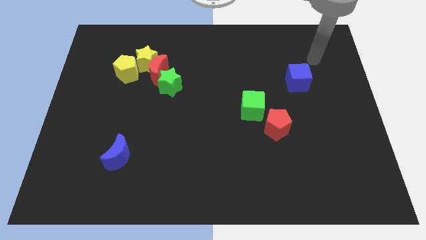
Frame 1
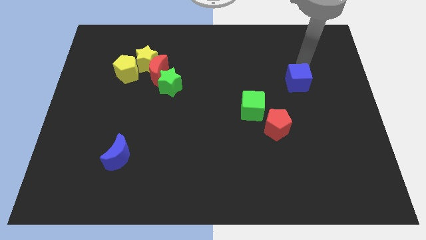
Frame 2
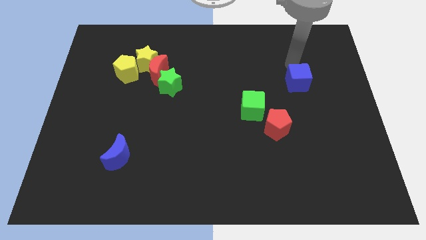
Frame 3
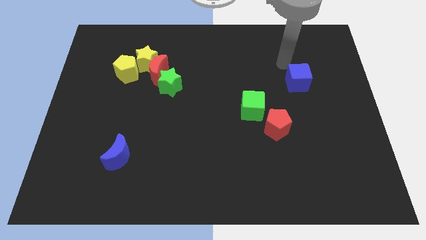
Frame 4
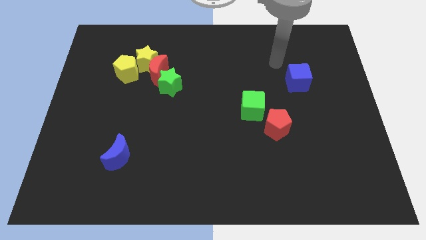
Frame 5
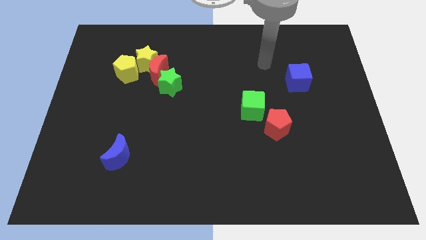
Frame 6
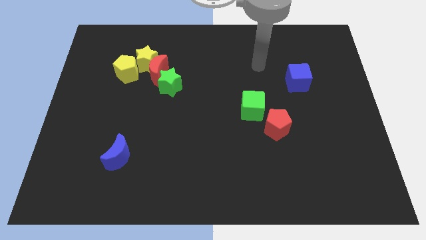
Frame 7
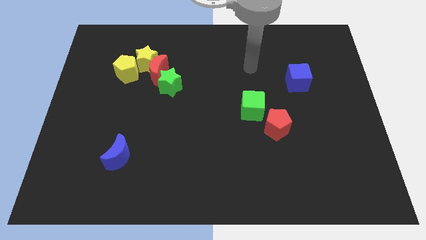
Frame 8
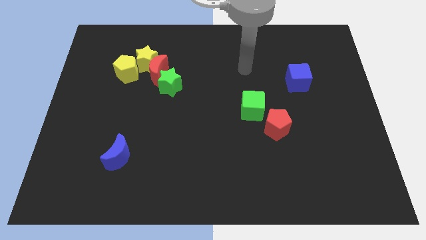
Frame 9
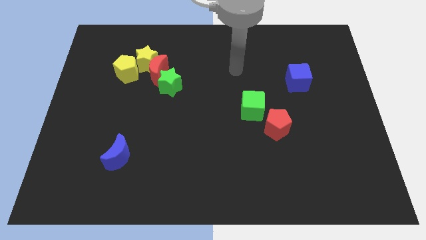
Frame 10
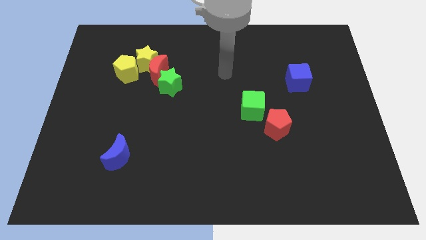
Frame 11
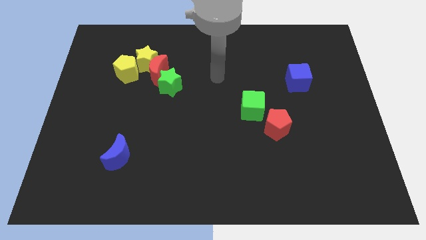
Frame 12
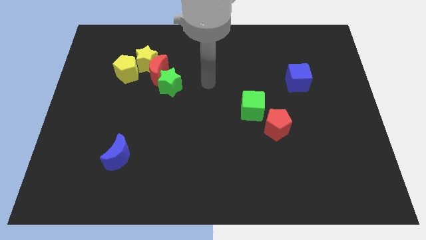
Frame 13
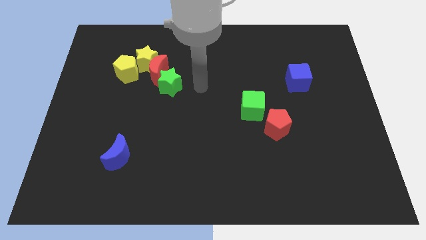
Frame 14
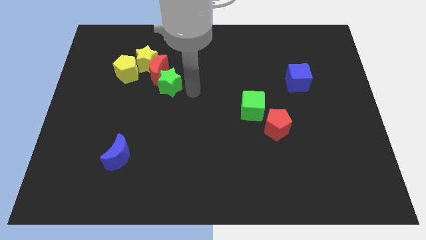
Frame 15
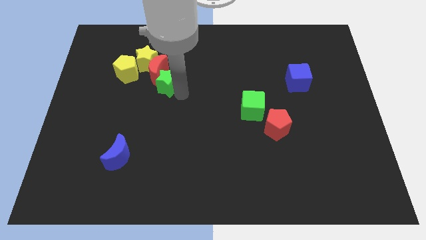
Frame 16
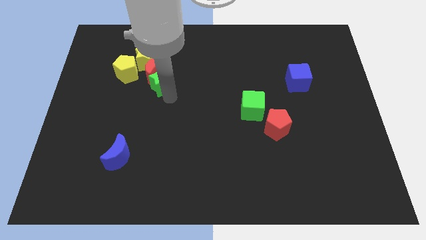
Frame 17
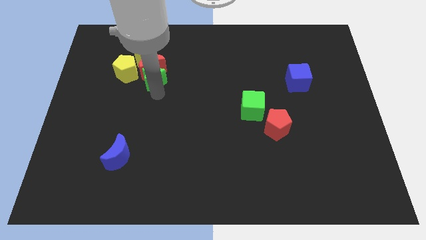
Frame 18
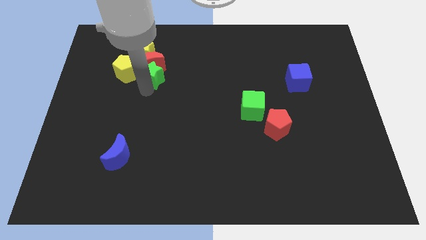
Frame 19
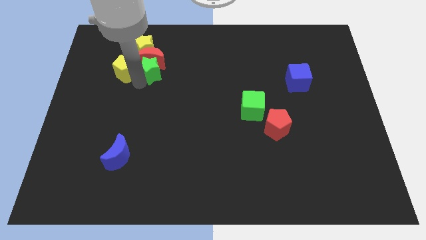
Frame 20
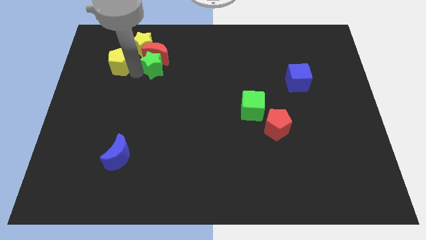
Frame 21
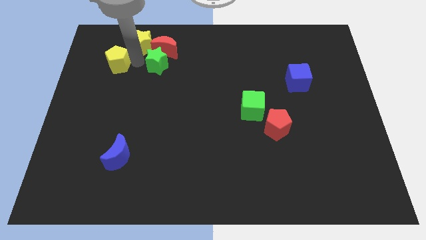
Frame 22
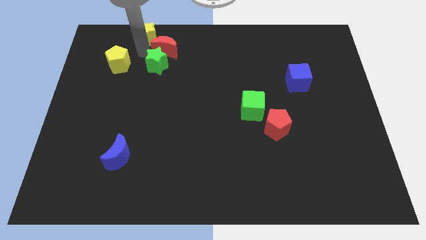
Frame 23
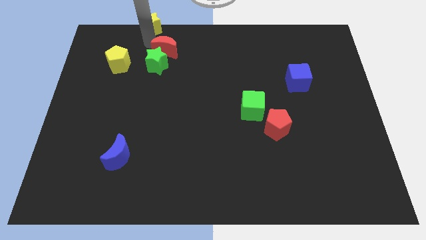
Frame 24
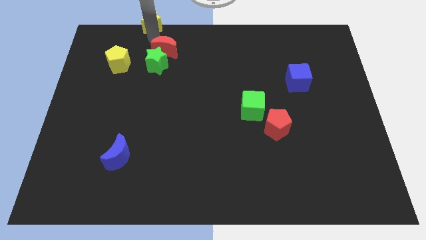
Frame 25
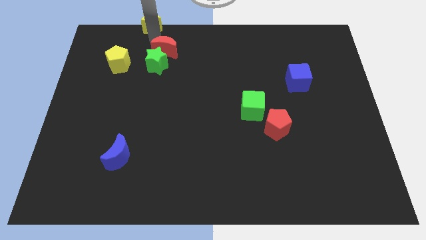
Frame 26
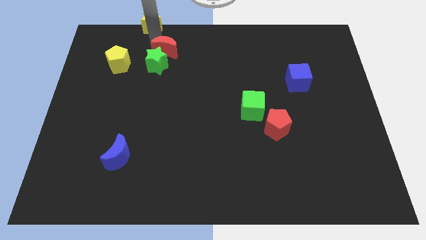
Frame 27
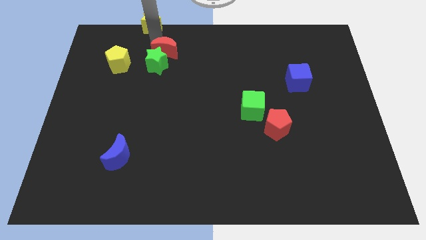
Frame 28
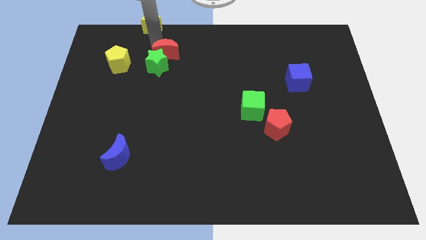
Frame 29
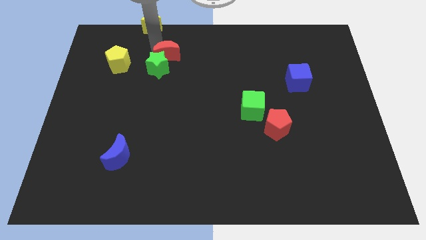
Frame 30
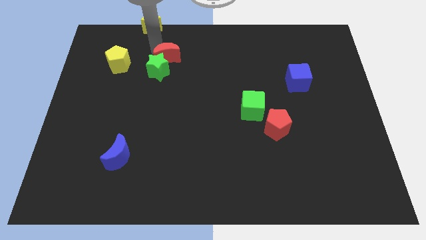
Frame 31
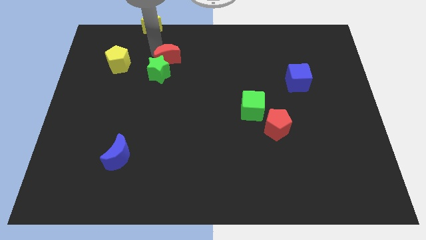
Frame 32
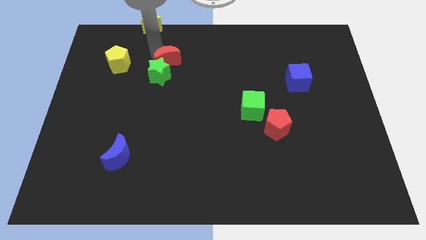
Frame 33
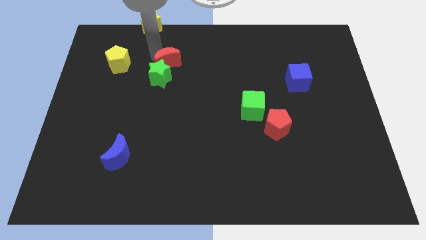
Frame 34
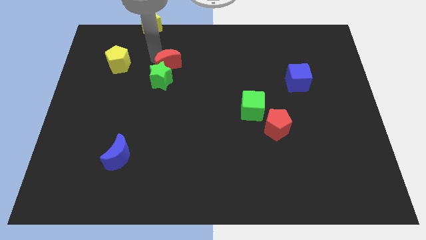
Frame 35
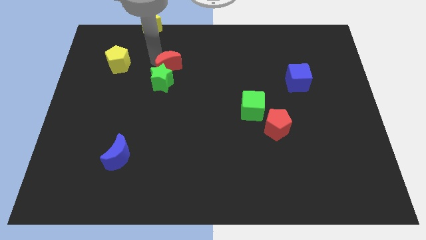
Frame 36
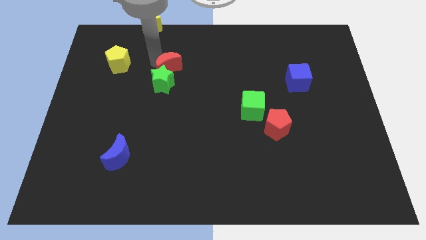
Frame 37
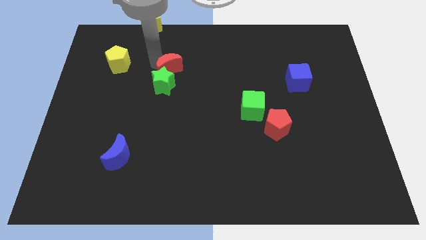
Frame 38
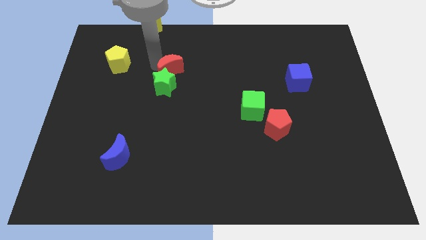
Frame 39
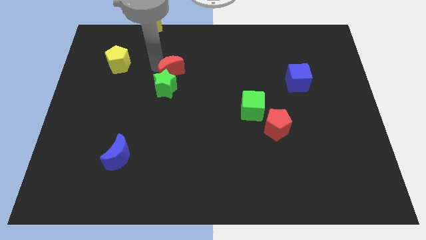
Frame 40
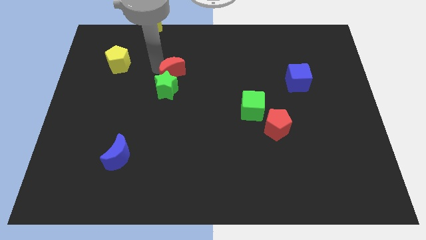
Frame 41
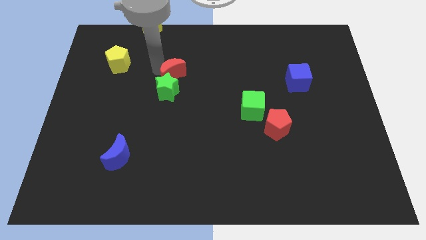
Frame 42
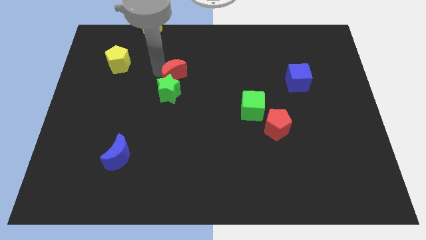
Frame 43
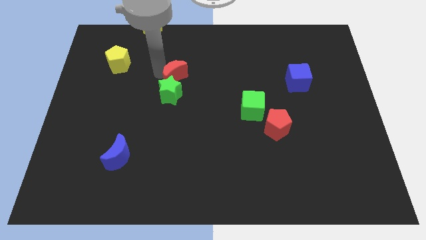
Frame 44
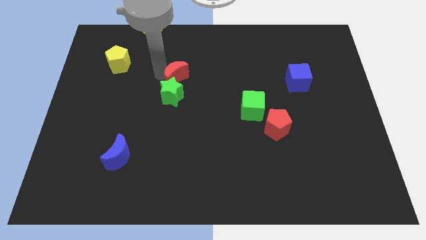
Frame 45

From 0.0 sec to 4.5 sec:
move the red moon away from the group

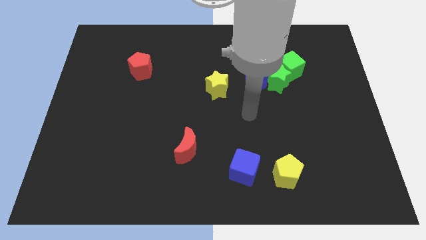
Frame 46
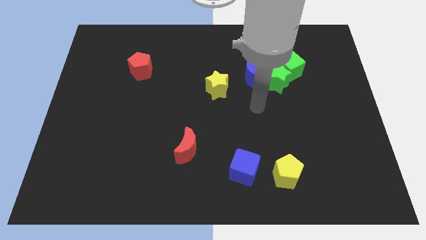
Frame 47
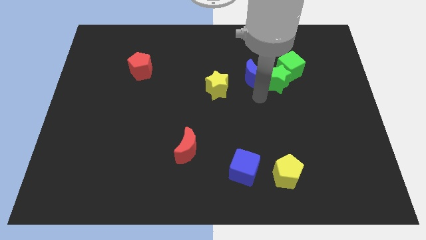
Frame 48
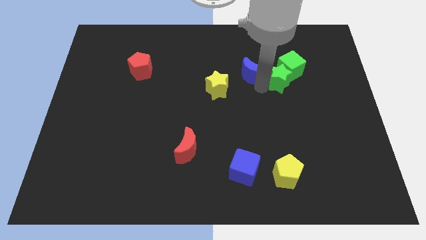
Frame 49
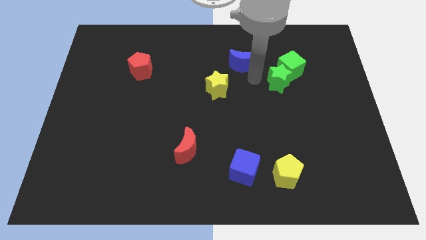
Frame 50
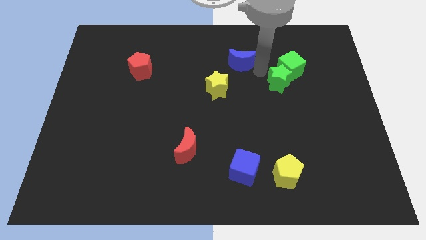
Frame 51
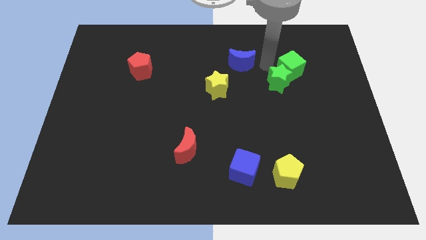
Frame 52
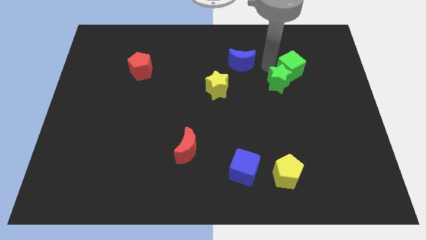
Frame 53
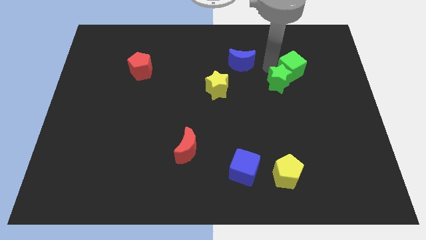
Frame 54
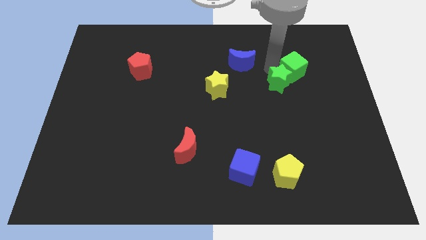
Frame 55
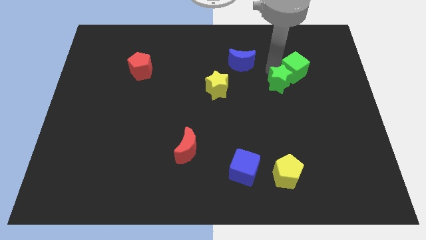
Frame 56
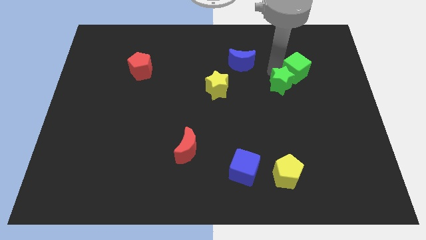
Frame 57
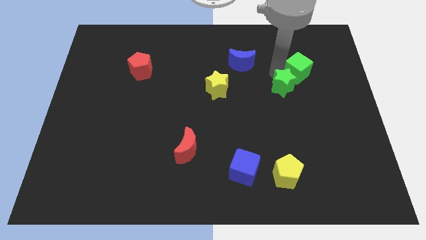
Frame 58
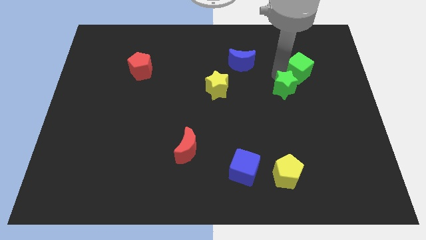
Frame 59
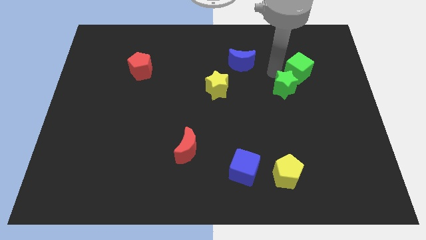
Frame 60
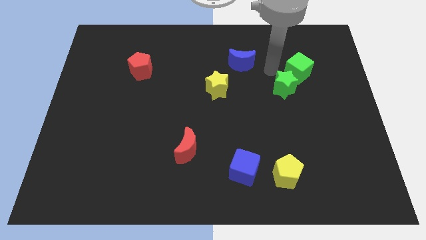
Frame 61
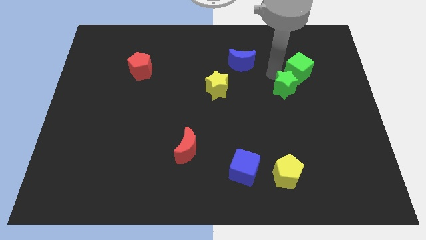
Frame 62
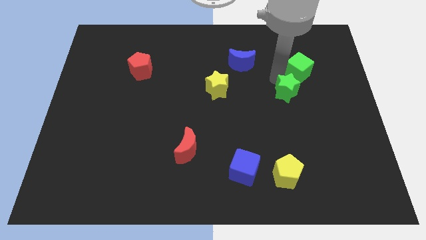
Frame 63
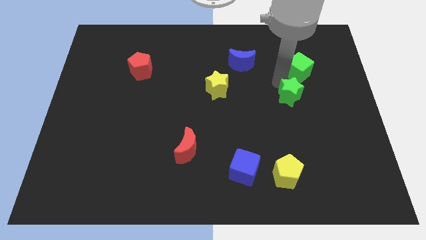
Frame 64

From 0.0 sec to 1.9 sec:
move the green star away from the green cube and blue moon

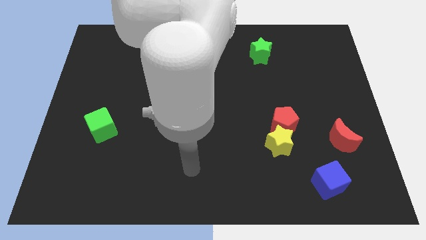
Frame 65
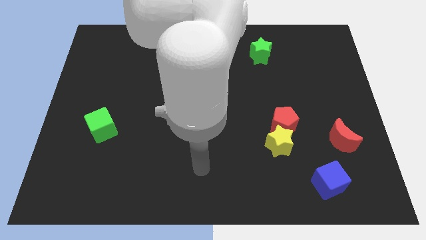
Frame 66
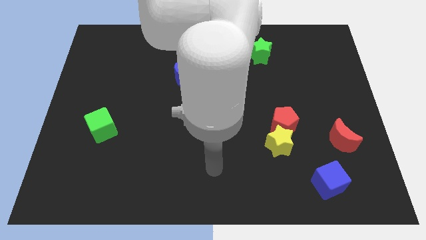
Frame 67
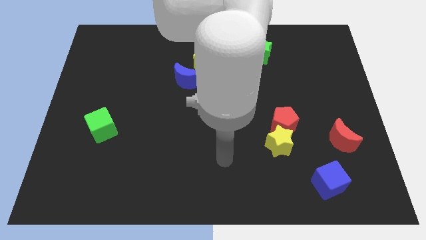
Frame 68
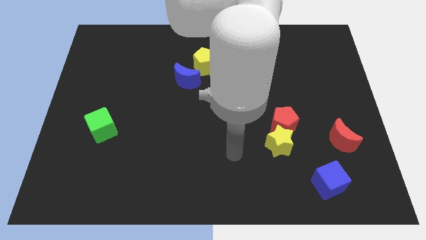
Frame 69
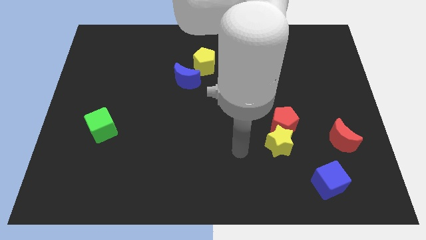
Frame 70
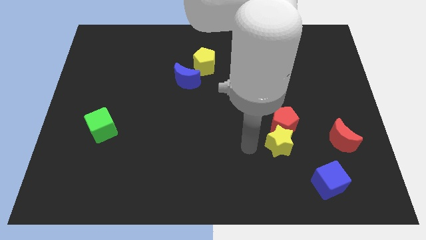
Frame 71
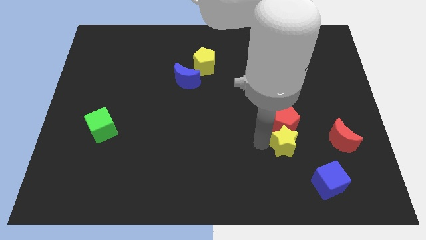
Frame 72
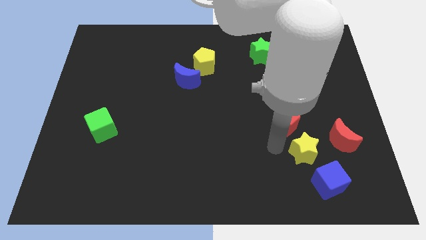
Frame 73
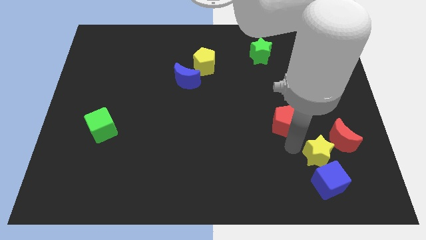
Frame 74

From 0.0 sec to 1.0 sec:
pull the red pentagon apart from the yellow star

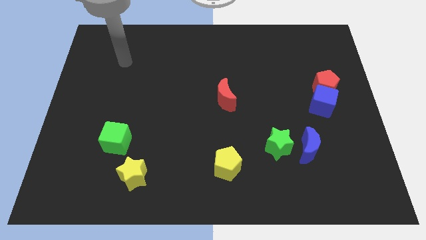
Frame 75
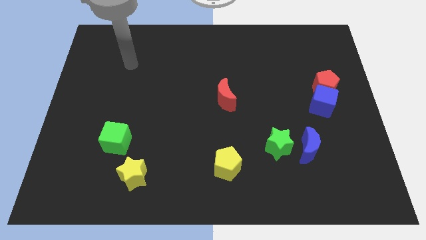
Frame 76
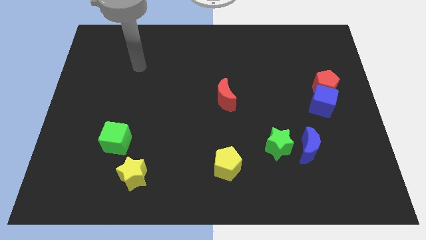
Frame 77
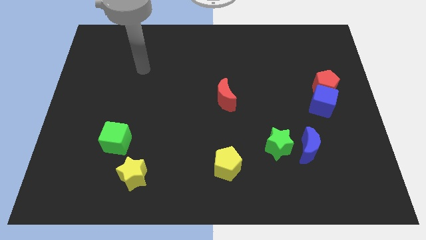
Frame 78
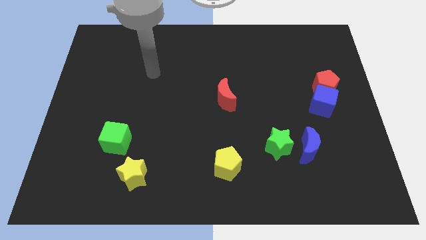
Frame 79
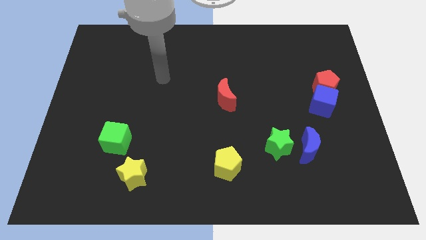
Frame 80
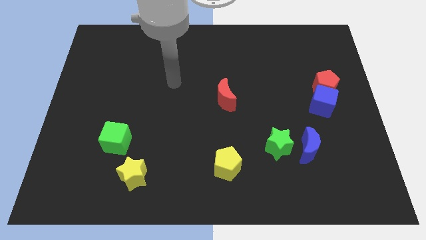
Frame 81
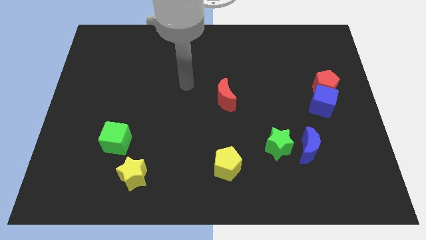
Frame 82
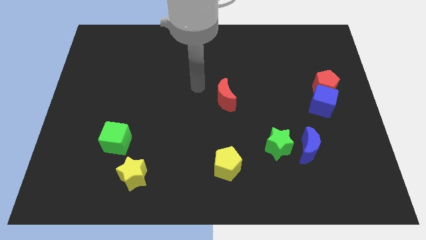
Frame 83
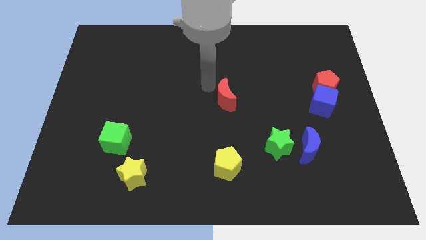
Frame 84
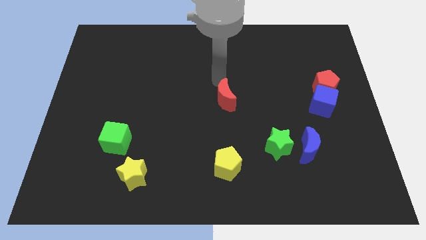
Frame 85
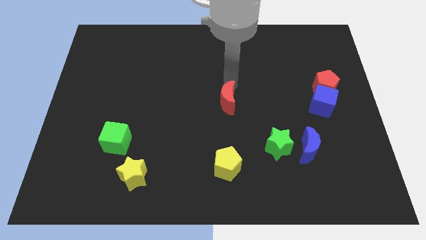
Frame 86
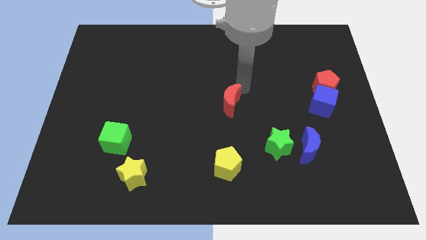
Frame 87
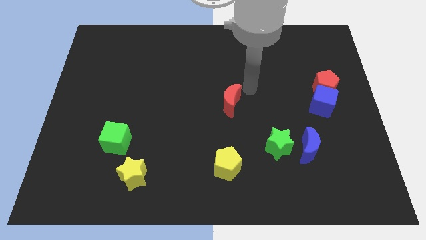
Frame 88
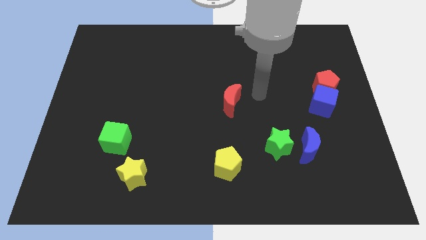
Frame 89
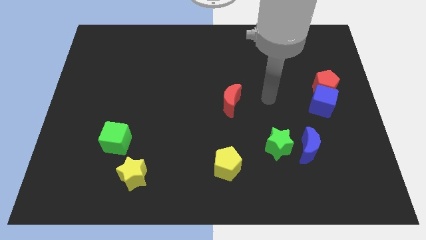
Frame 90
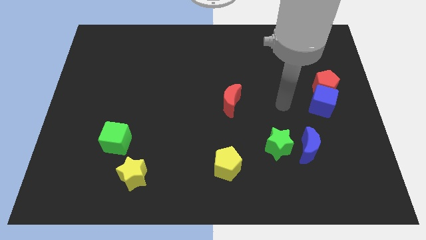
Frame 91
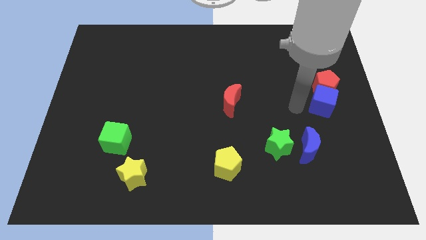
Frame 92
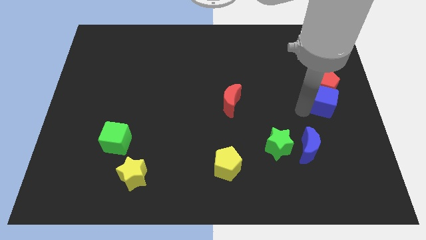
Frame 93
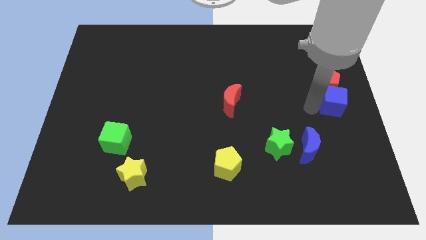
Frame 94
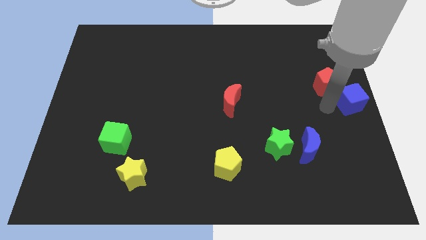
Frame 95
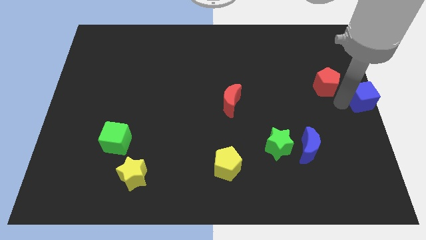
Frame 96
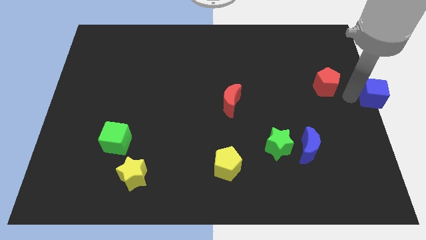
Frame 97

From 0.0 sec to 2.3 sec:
separate the red pentagon from the blue cube
